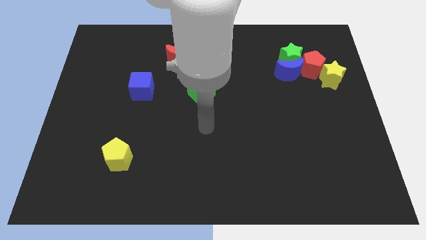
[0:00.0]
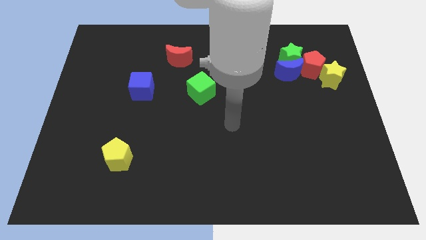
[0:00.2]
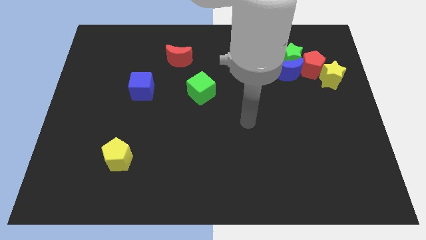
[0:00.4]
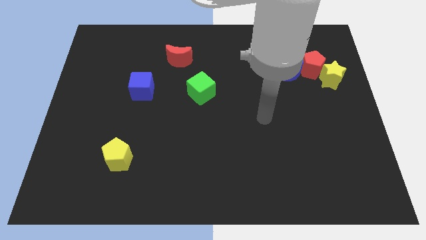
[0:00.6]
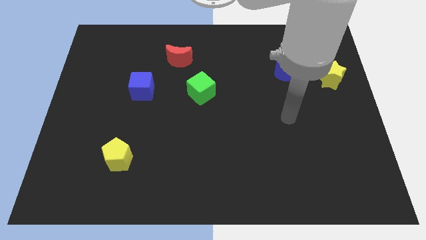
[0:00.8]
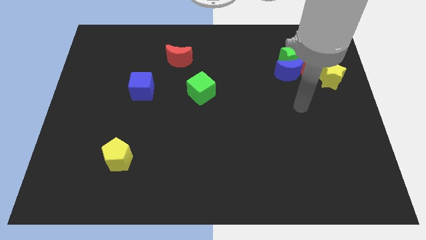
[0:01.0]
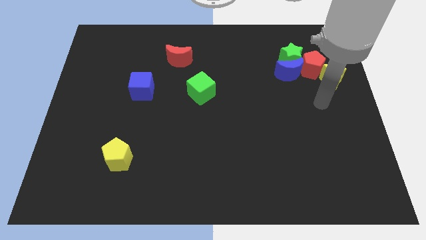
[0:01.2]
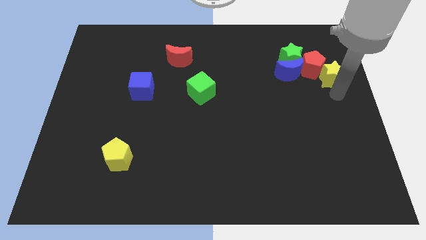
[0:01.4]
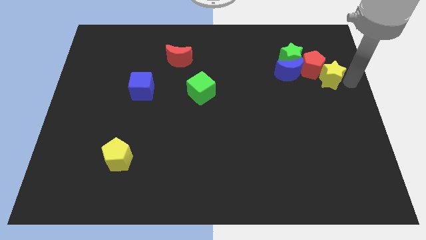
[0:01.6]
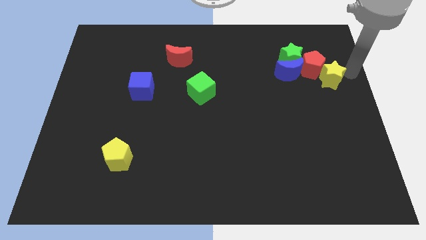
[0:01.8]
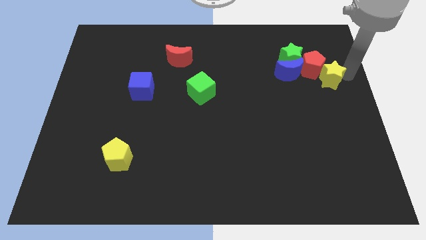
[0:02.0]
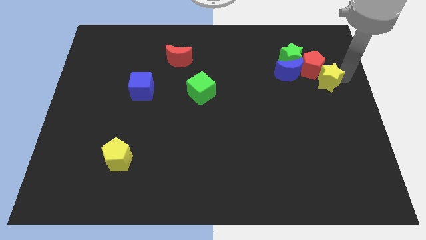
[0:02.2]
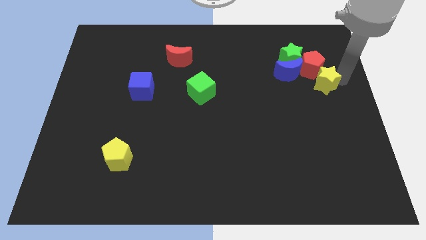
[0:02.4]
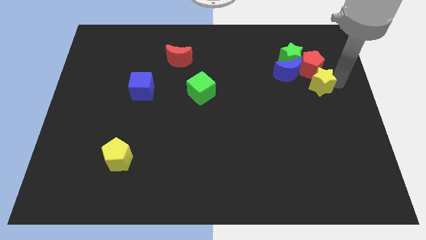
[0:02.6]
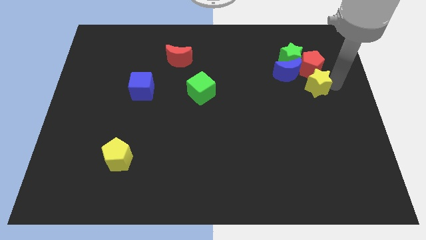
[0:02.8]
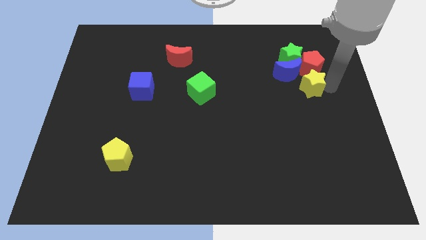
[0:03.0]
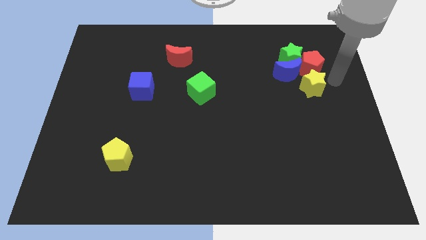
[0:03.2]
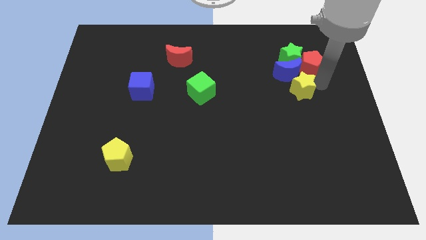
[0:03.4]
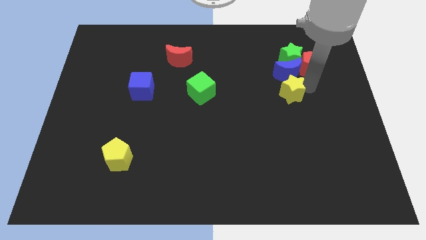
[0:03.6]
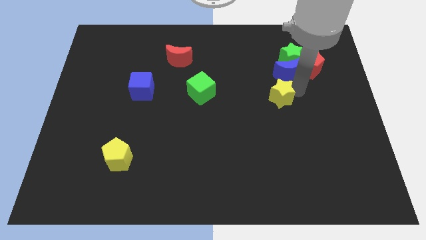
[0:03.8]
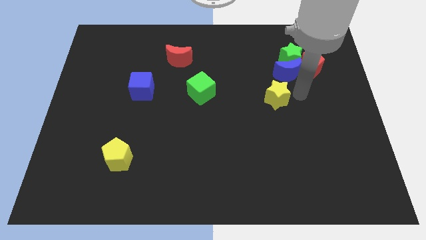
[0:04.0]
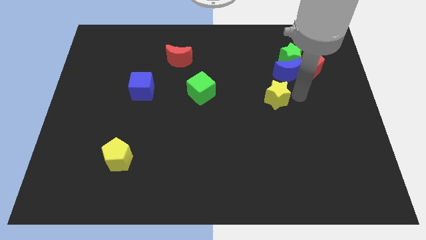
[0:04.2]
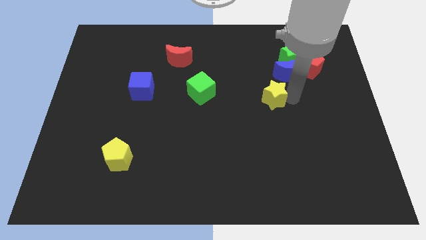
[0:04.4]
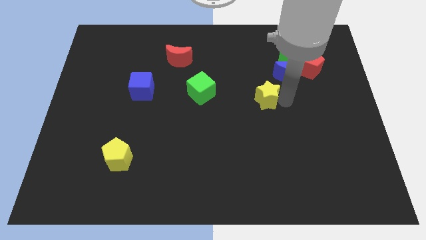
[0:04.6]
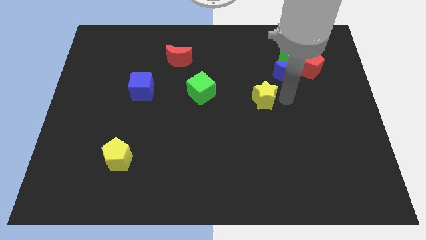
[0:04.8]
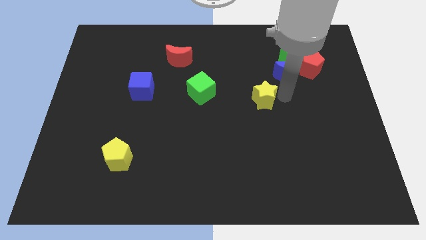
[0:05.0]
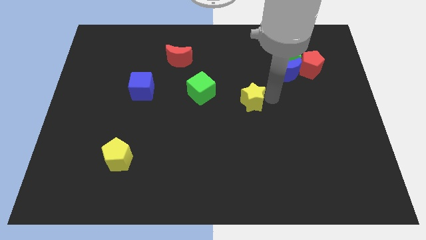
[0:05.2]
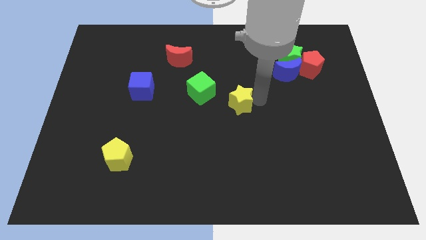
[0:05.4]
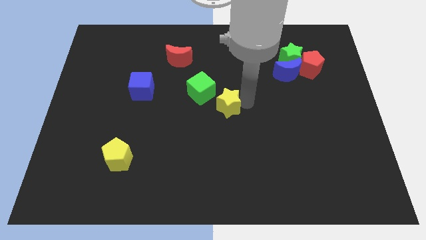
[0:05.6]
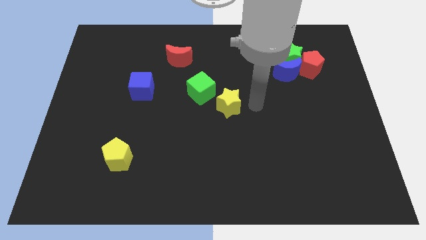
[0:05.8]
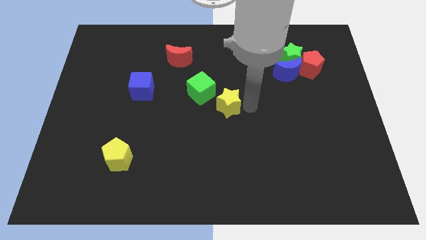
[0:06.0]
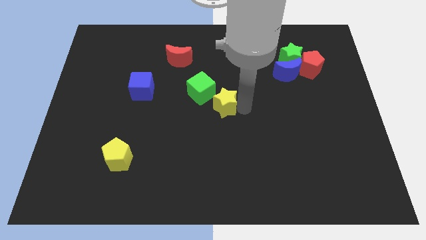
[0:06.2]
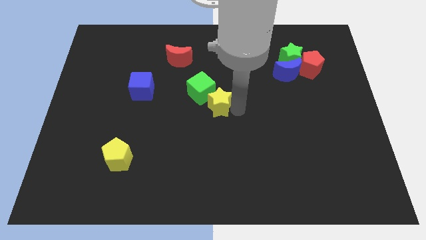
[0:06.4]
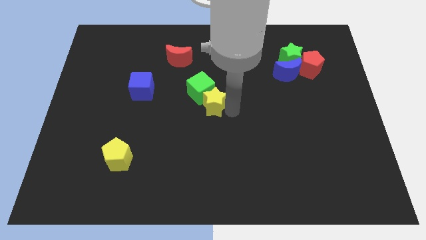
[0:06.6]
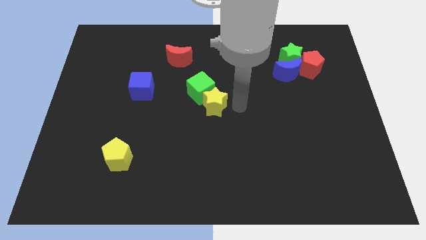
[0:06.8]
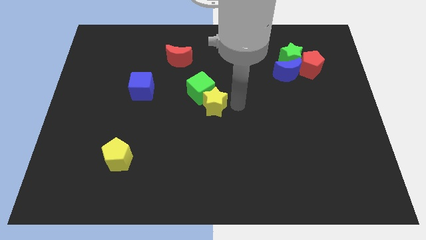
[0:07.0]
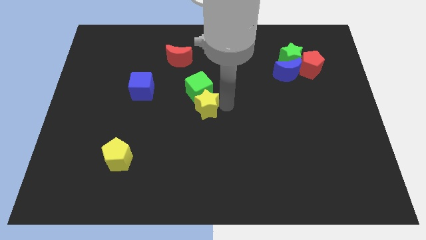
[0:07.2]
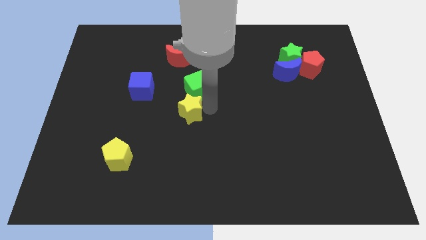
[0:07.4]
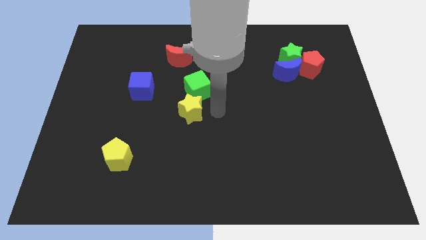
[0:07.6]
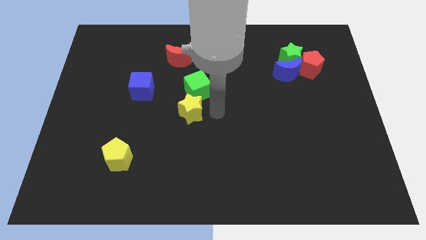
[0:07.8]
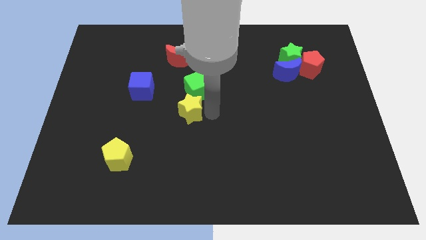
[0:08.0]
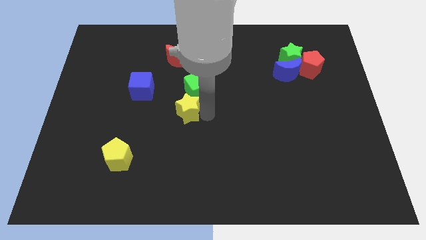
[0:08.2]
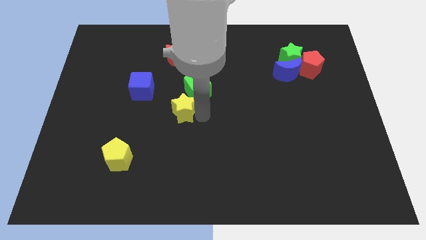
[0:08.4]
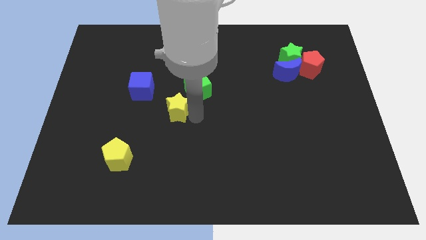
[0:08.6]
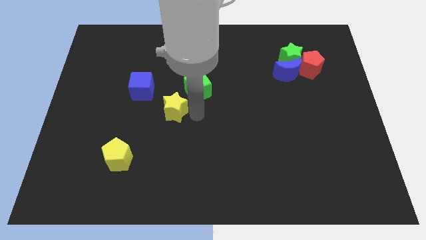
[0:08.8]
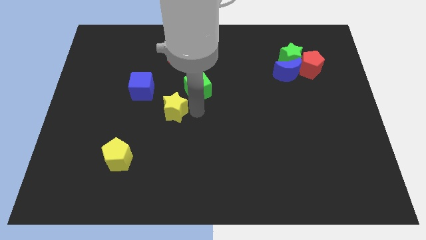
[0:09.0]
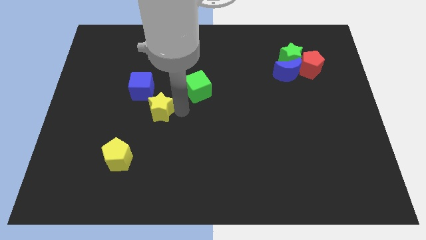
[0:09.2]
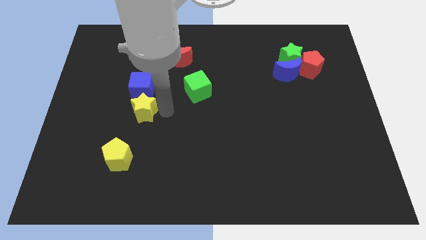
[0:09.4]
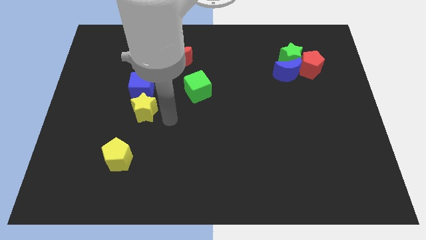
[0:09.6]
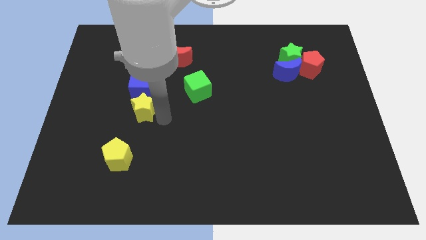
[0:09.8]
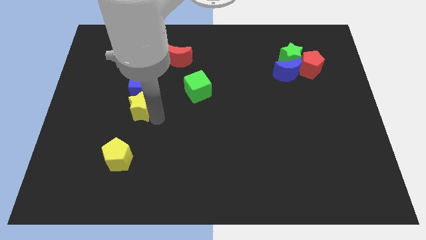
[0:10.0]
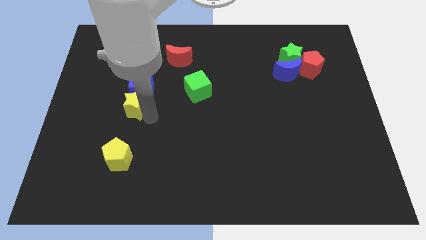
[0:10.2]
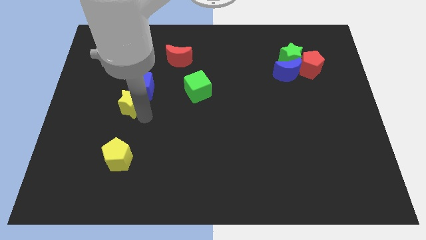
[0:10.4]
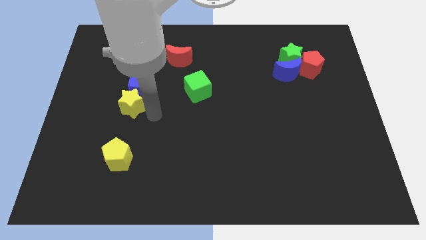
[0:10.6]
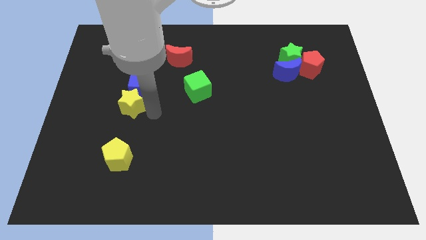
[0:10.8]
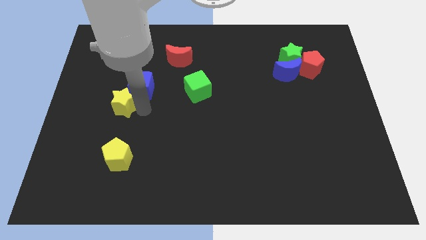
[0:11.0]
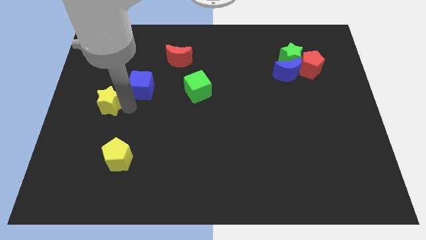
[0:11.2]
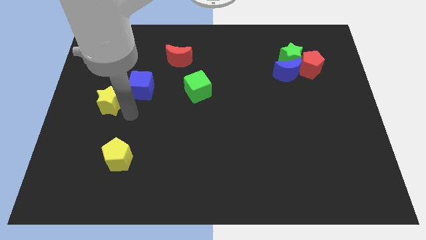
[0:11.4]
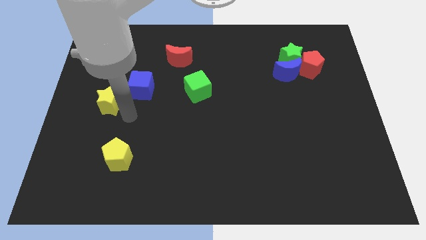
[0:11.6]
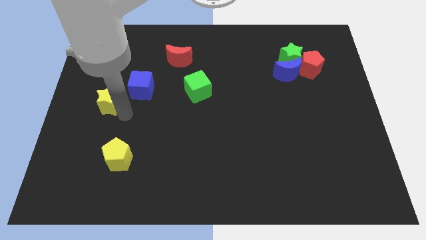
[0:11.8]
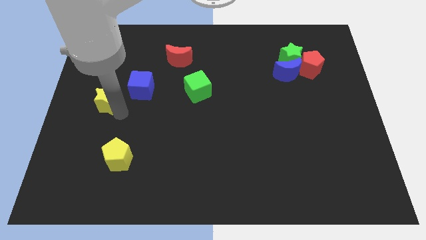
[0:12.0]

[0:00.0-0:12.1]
put the yellow star to the left side

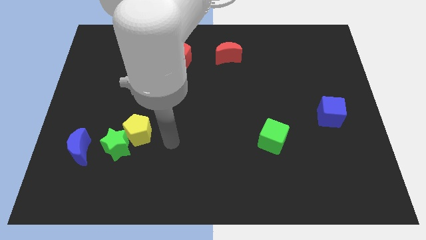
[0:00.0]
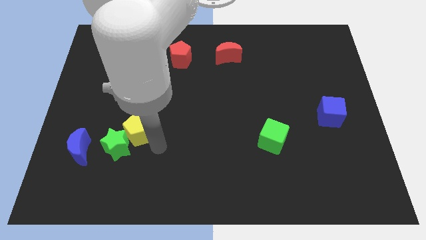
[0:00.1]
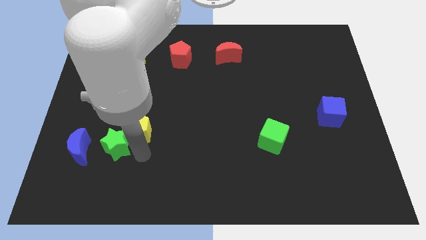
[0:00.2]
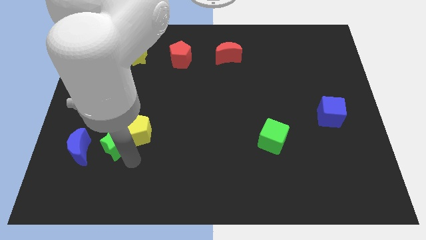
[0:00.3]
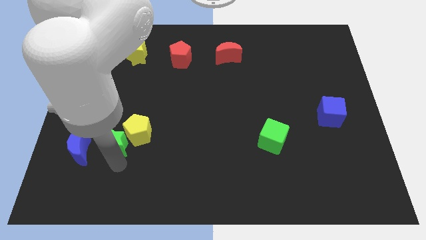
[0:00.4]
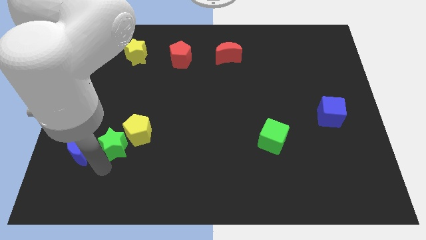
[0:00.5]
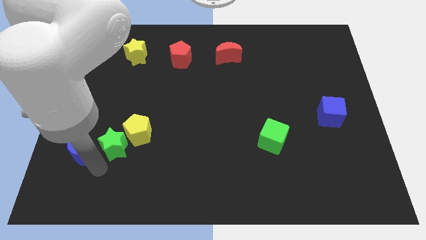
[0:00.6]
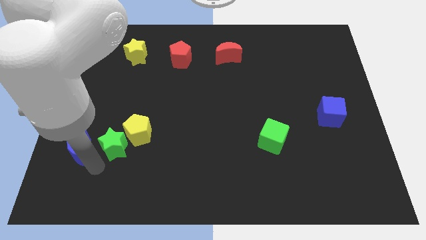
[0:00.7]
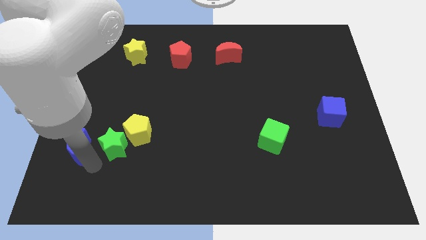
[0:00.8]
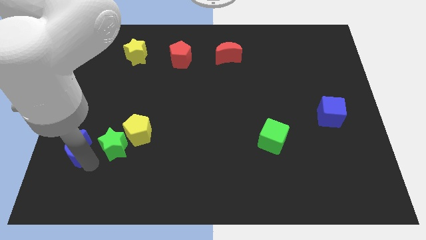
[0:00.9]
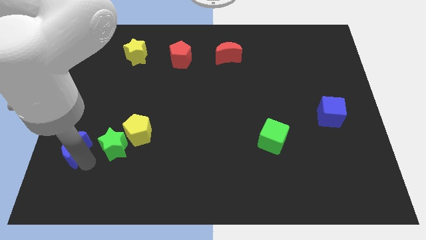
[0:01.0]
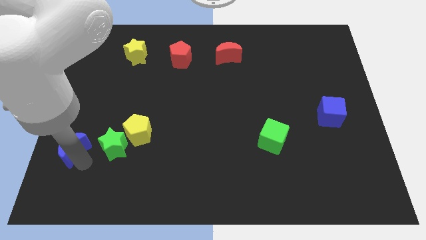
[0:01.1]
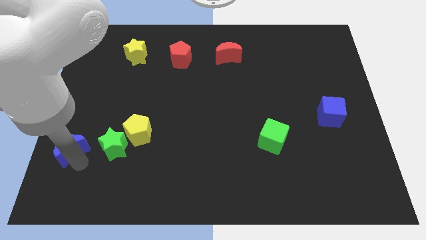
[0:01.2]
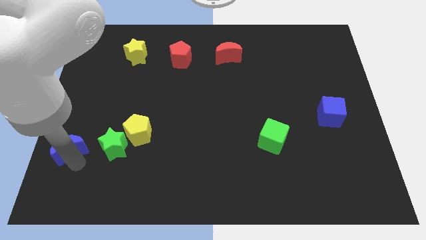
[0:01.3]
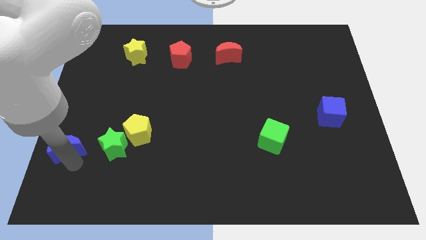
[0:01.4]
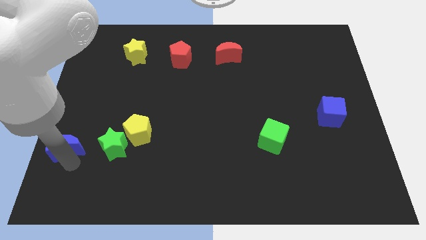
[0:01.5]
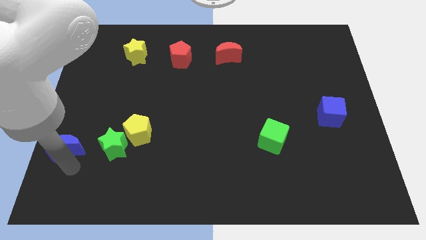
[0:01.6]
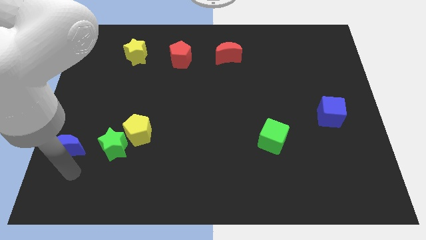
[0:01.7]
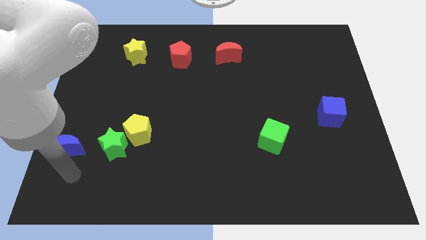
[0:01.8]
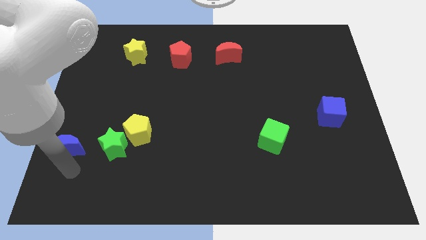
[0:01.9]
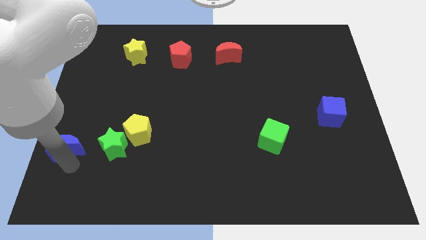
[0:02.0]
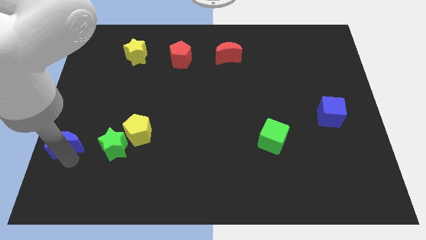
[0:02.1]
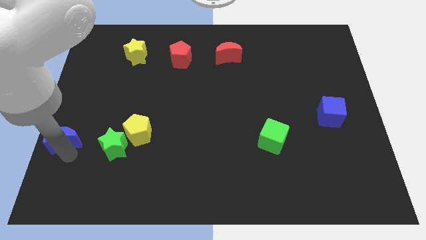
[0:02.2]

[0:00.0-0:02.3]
move the blue moon to the left side
